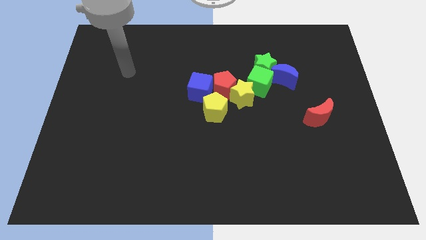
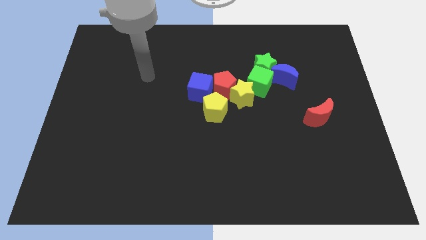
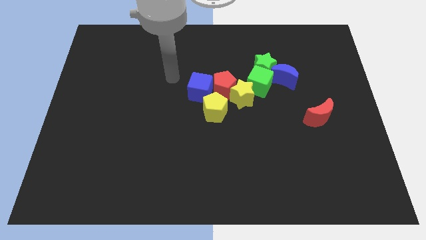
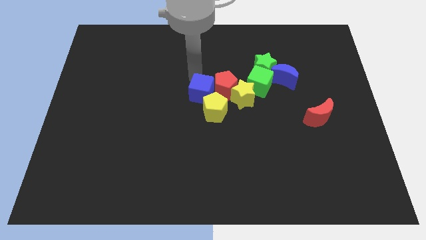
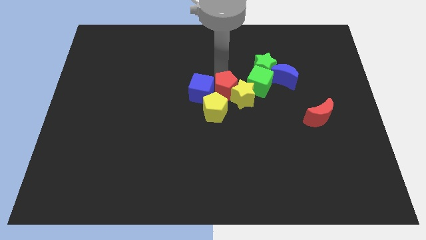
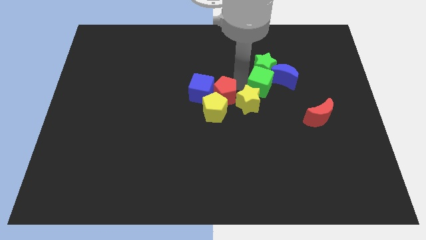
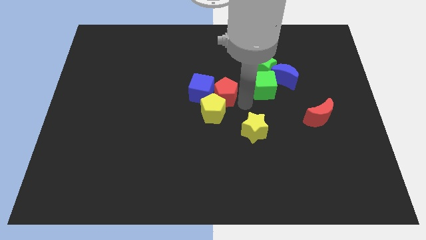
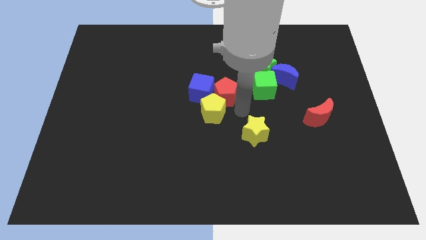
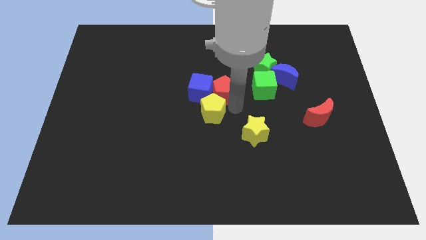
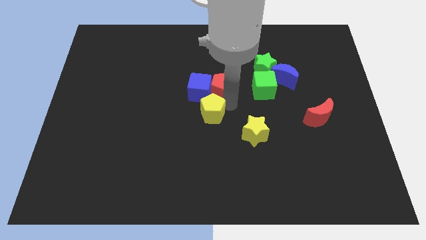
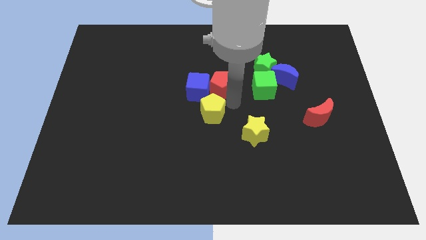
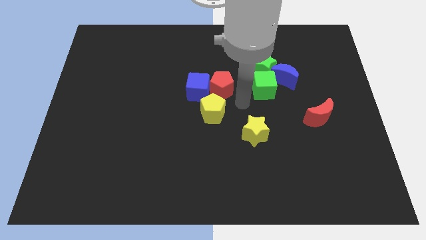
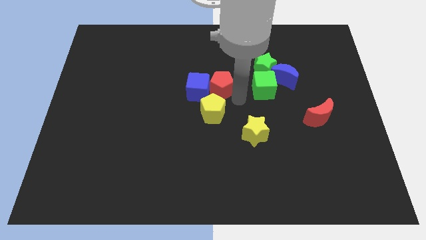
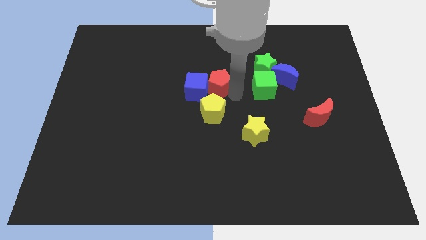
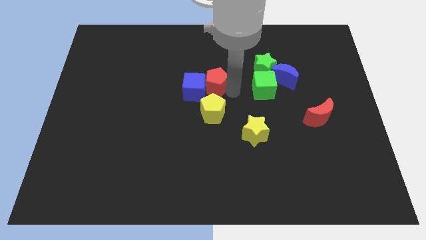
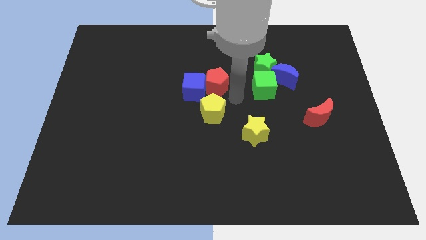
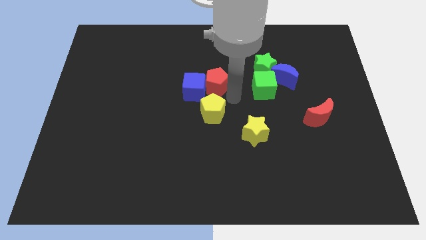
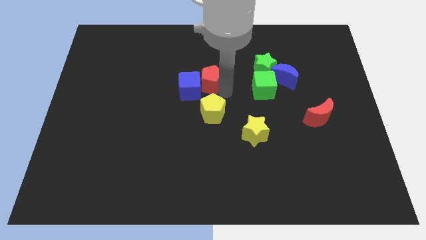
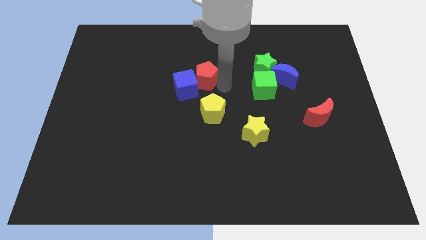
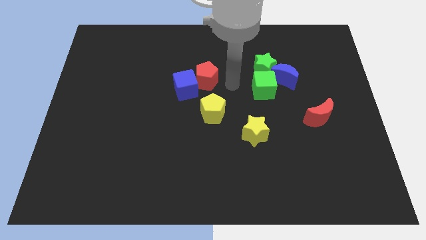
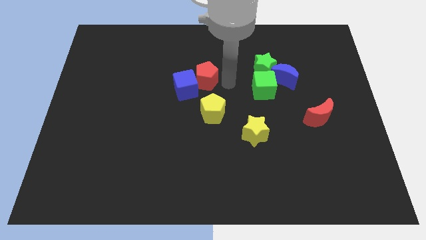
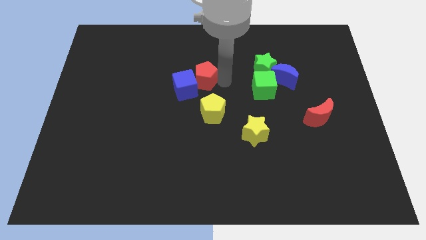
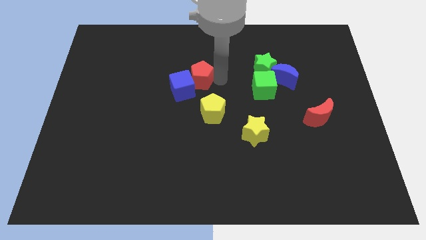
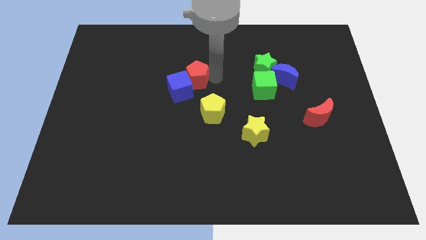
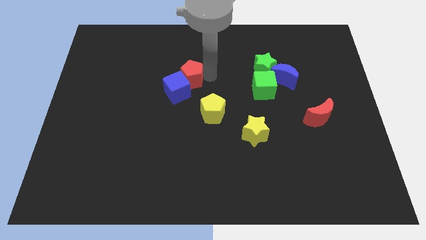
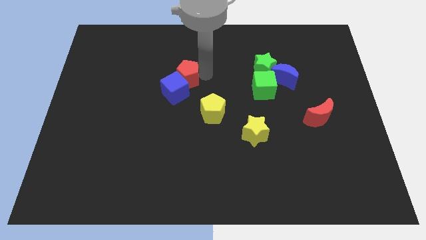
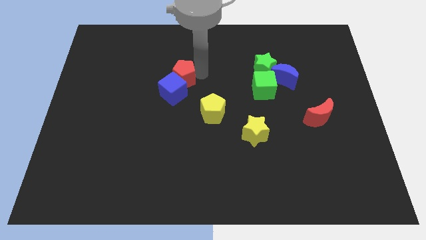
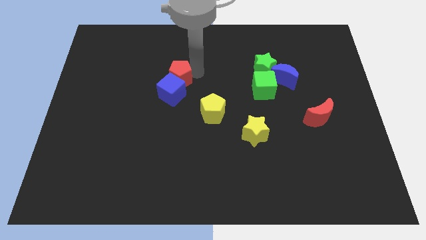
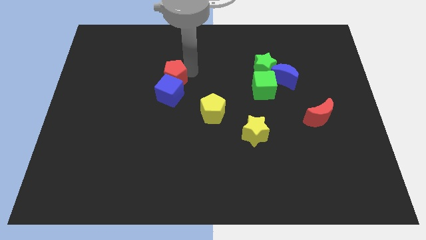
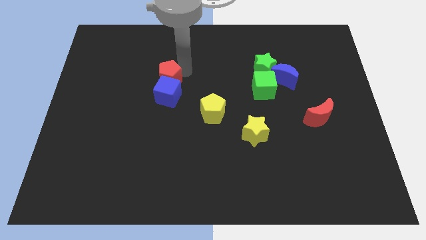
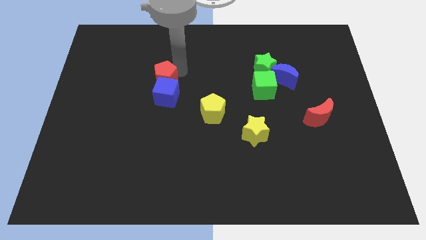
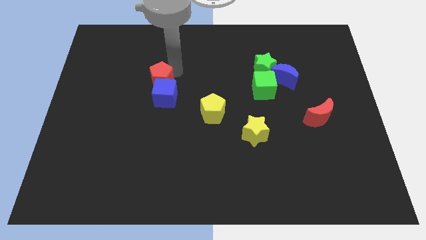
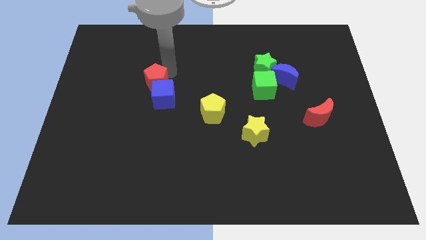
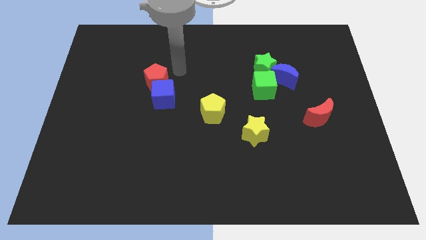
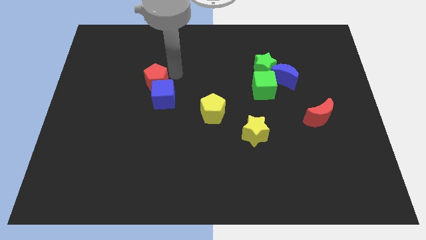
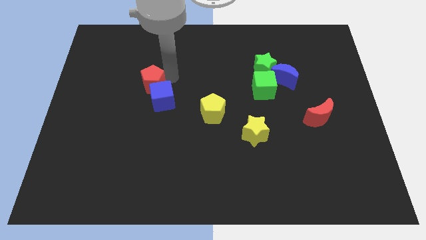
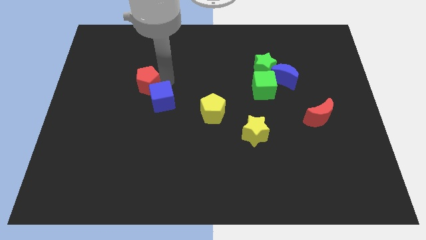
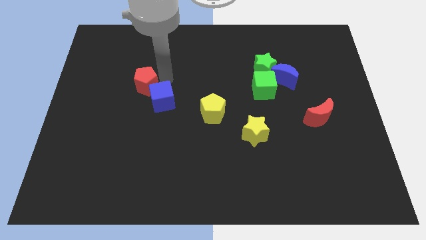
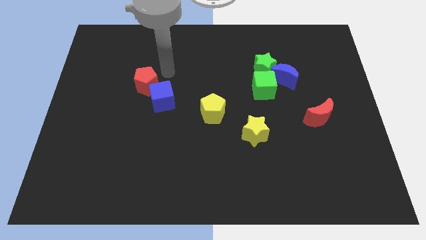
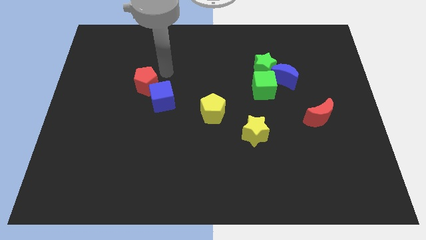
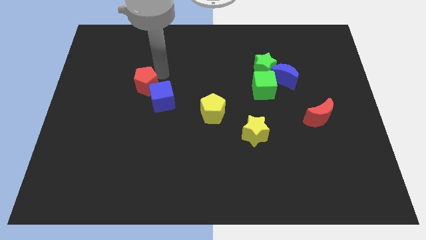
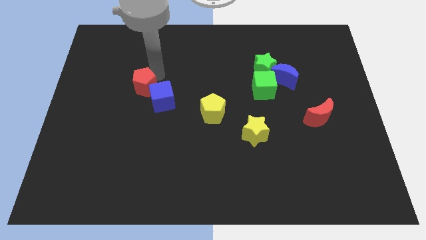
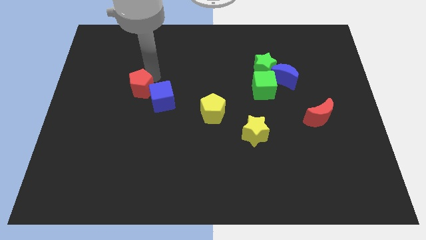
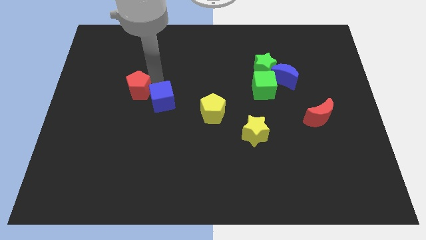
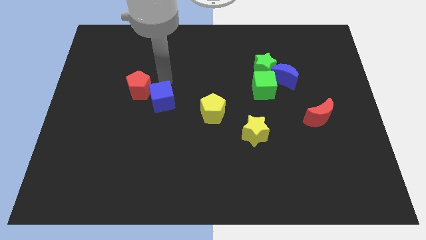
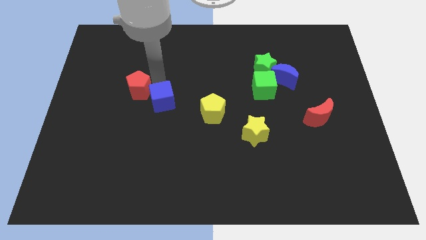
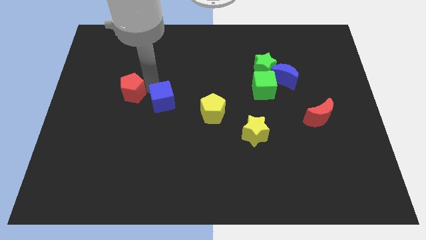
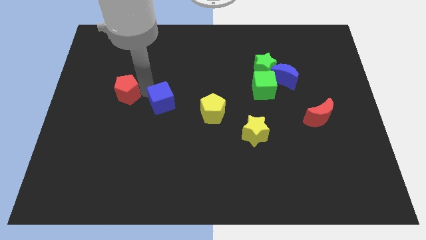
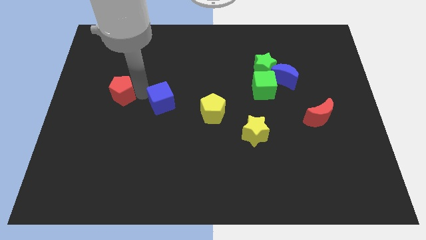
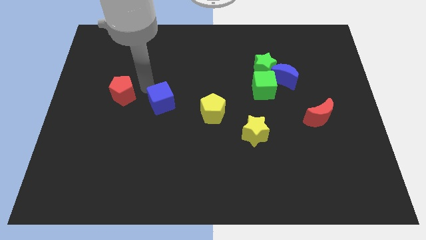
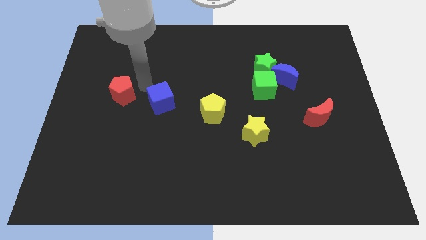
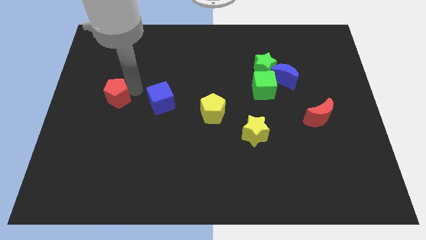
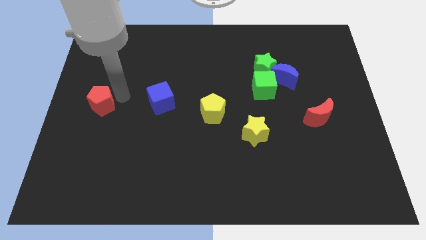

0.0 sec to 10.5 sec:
put the red pentagon to the center left

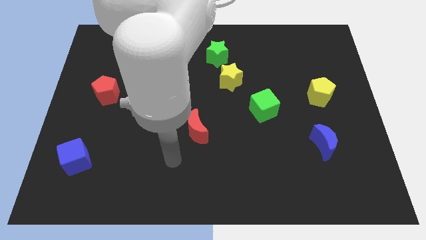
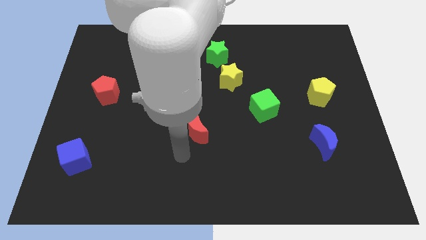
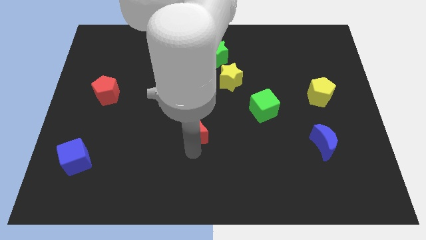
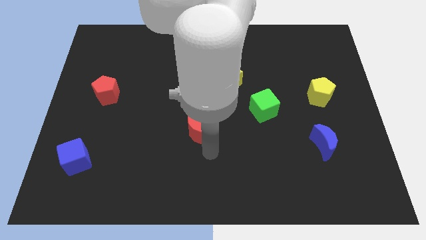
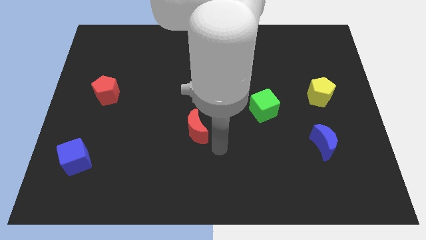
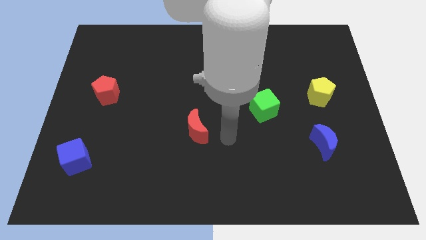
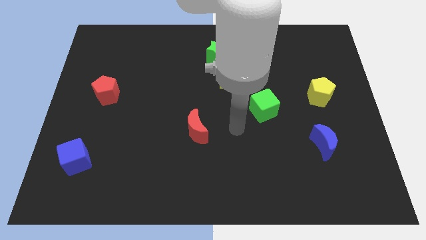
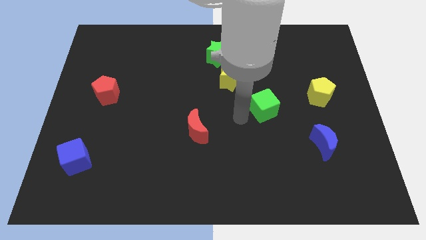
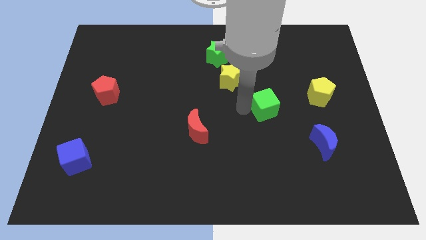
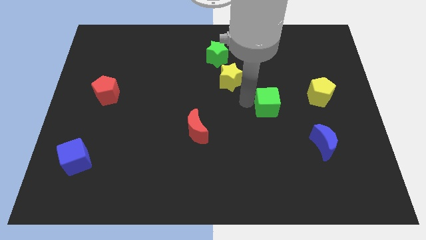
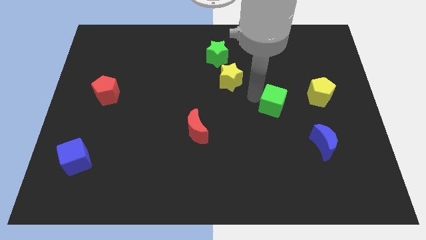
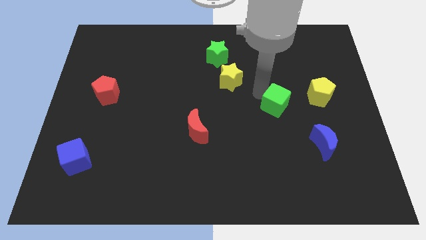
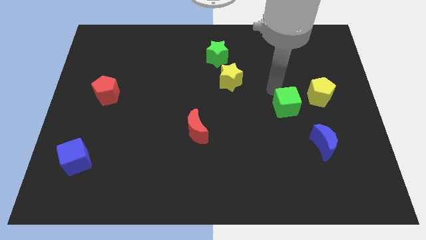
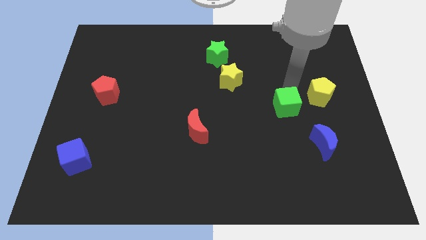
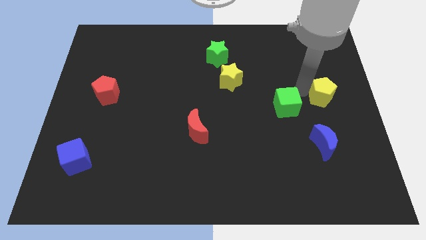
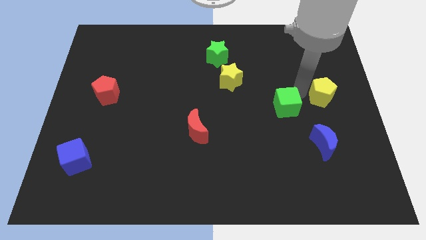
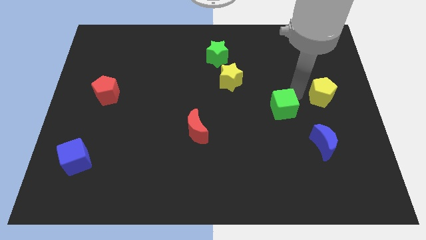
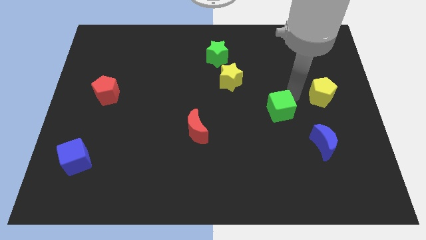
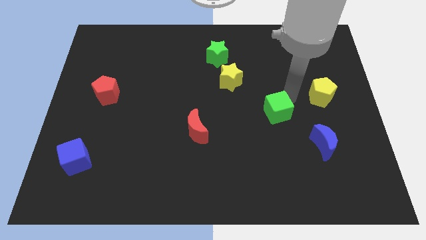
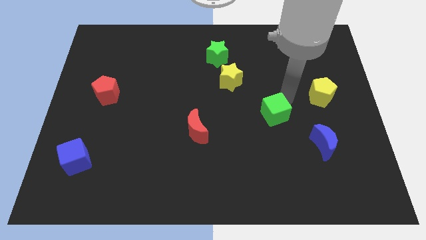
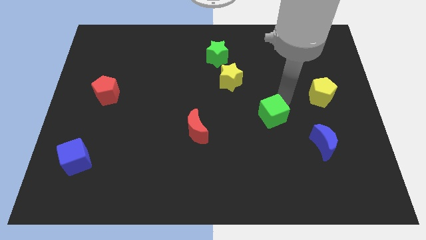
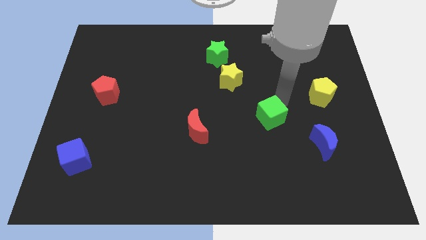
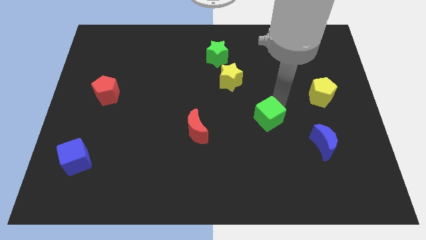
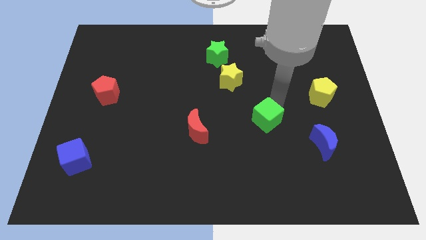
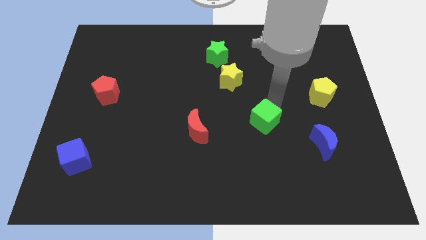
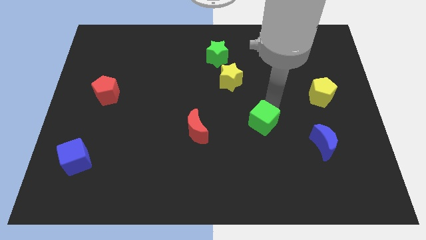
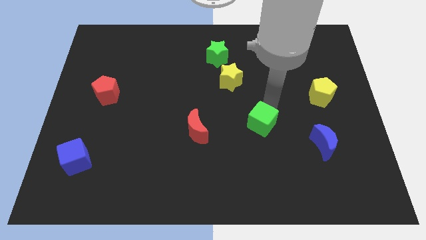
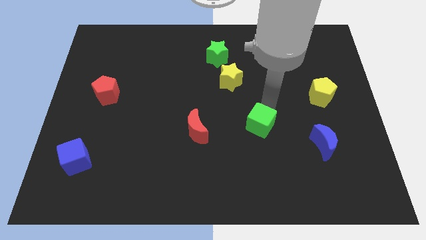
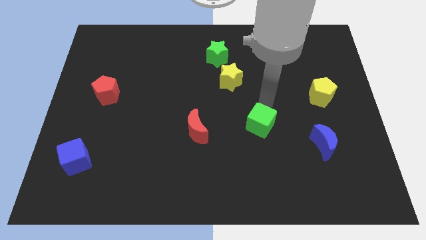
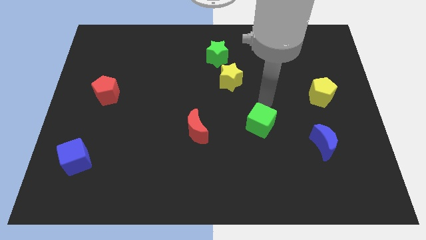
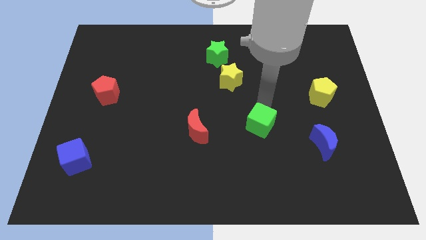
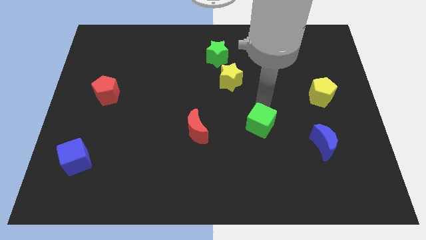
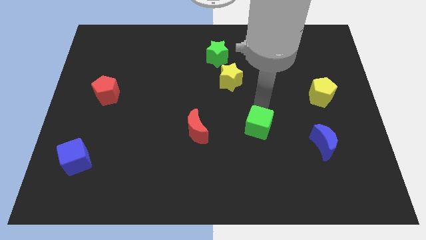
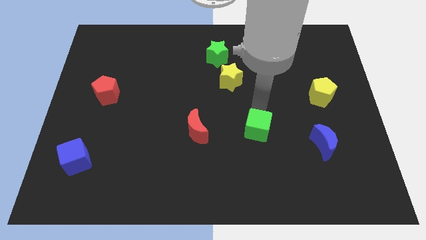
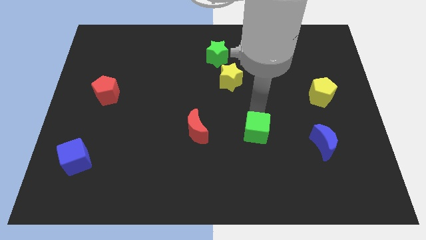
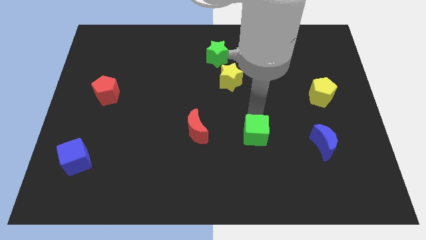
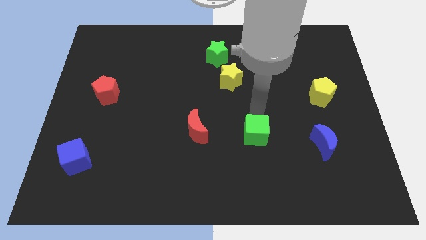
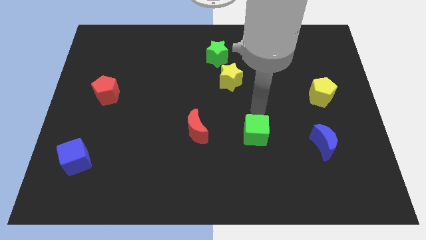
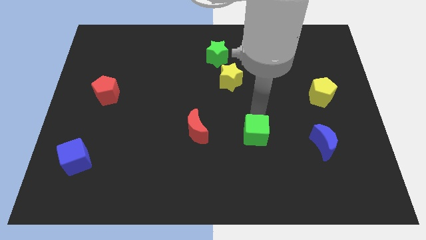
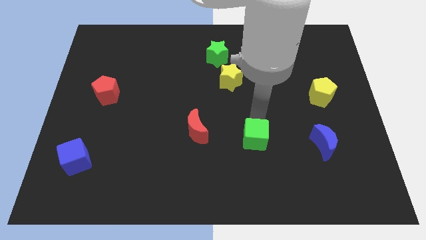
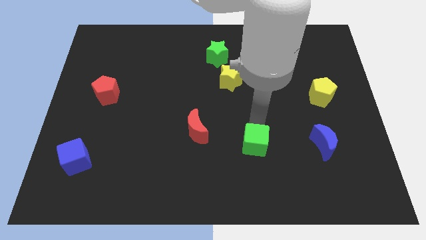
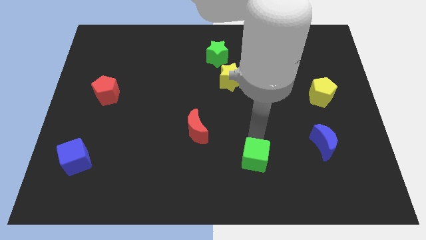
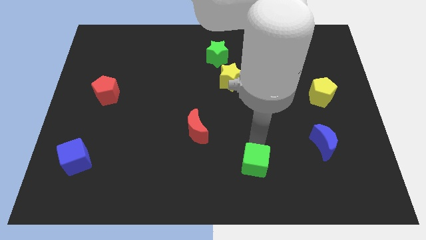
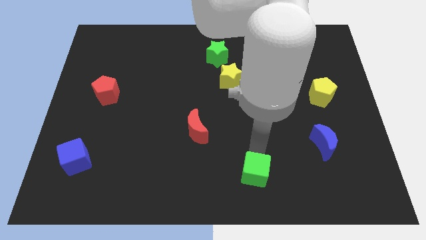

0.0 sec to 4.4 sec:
put the green cube to the bottom side
